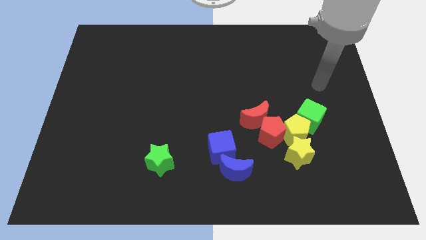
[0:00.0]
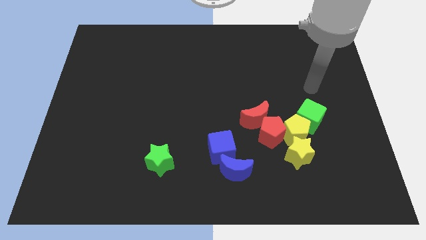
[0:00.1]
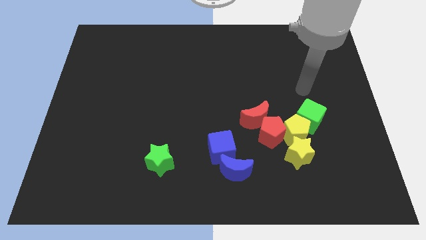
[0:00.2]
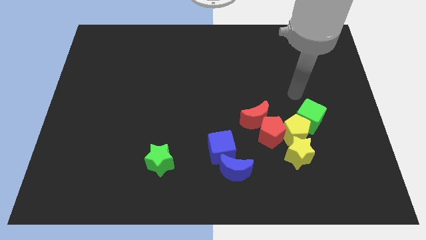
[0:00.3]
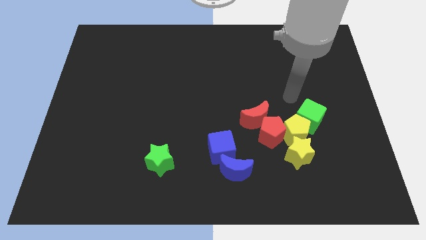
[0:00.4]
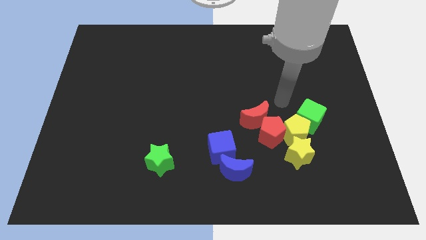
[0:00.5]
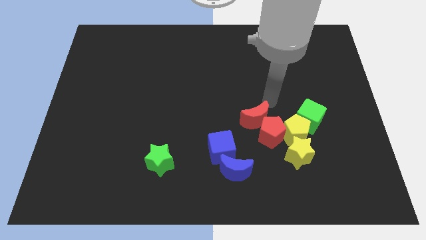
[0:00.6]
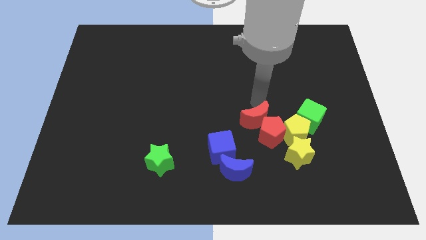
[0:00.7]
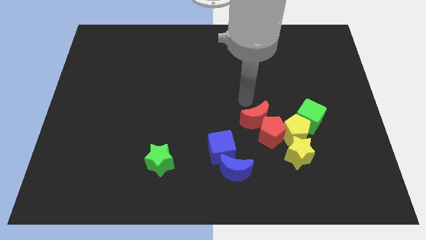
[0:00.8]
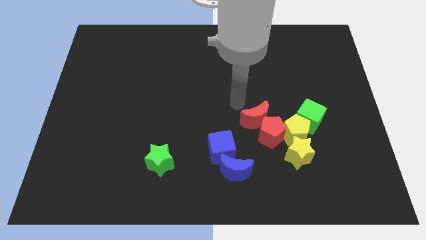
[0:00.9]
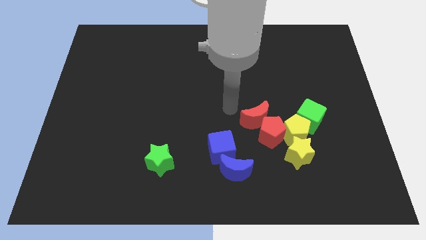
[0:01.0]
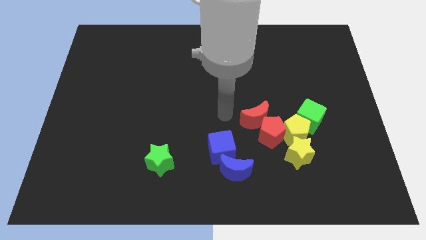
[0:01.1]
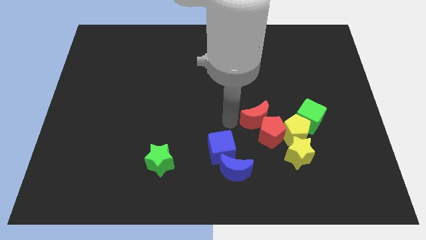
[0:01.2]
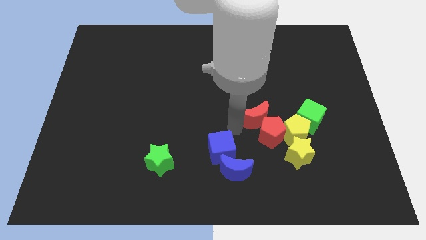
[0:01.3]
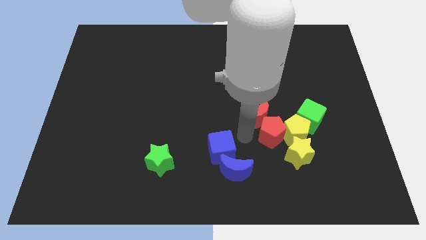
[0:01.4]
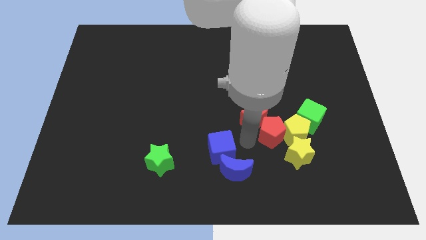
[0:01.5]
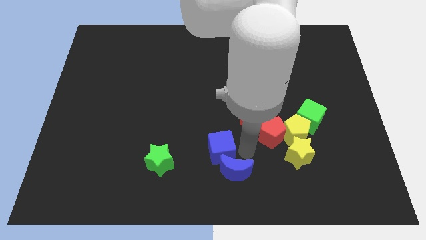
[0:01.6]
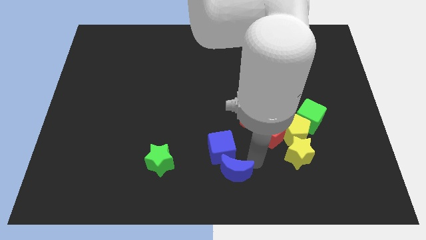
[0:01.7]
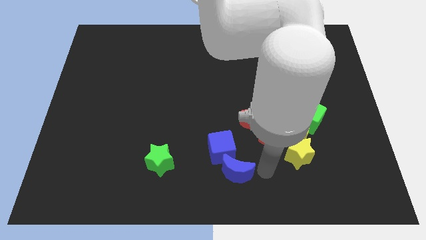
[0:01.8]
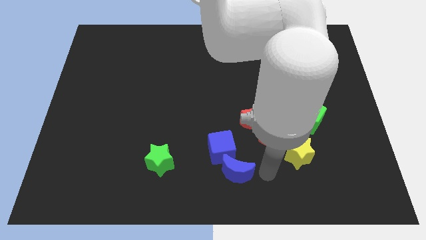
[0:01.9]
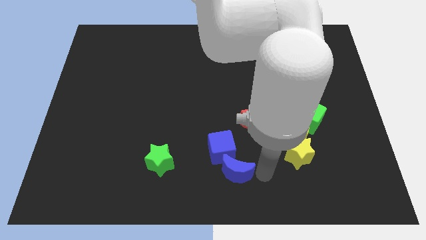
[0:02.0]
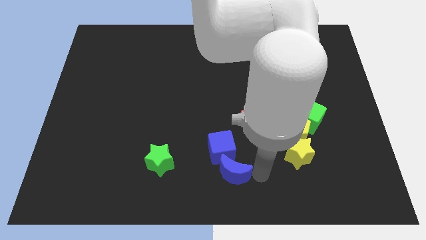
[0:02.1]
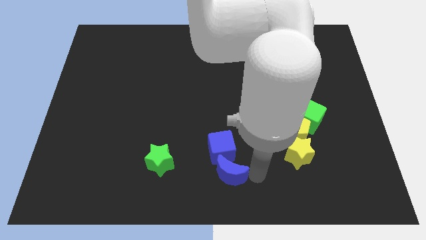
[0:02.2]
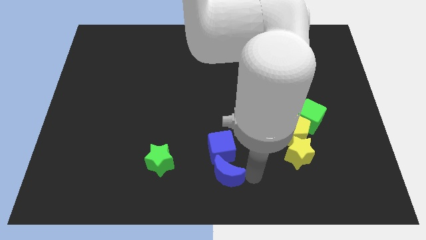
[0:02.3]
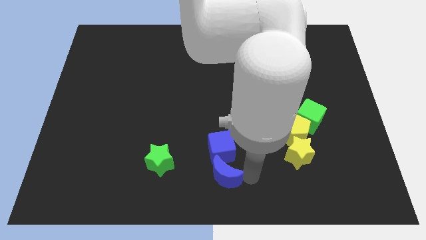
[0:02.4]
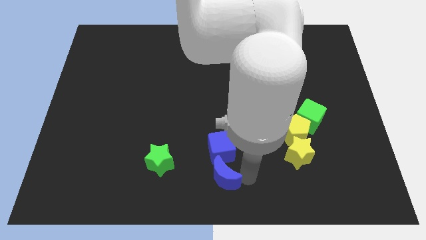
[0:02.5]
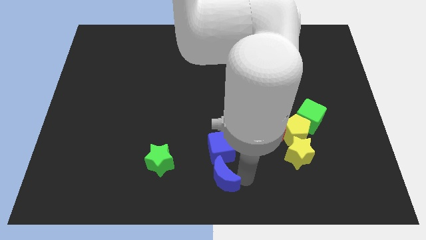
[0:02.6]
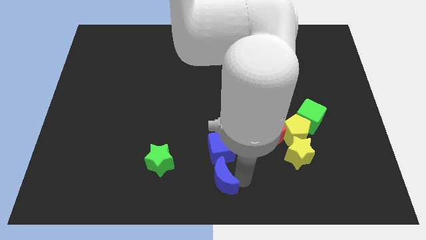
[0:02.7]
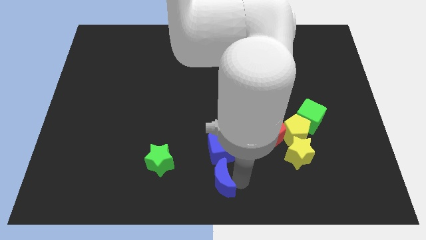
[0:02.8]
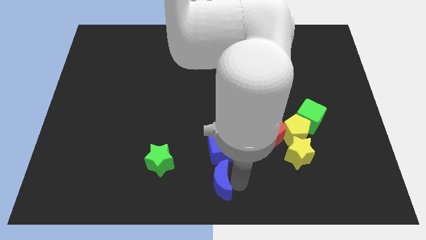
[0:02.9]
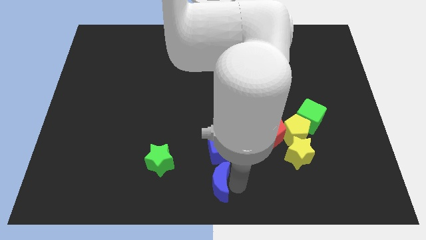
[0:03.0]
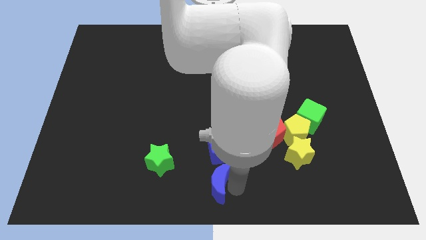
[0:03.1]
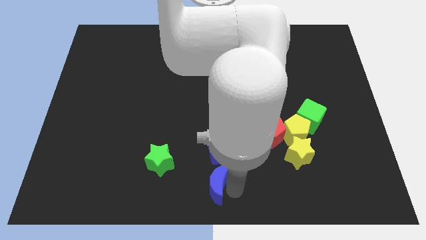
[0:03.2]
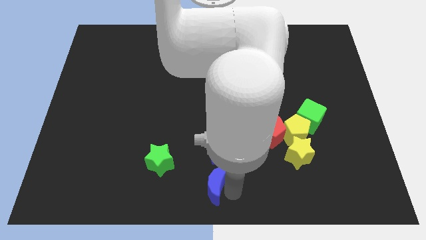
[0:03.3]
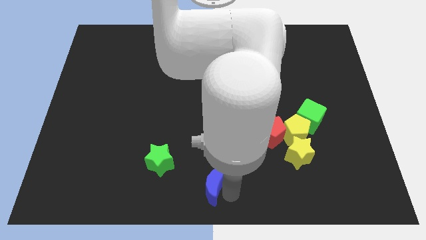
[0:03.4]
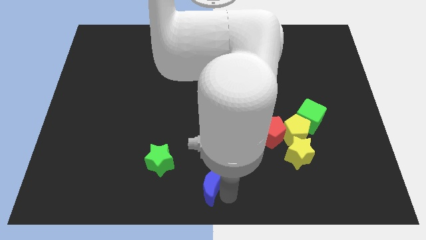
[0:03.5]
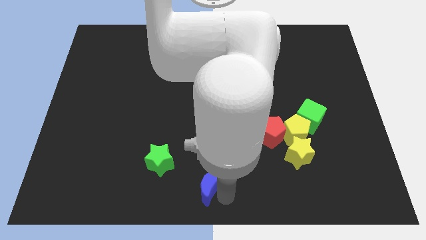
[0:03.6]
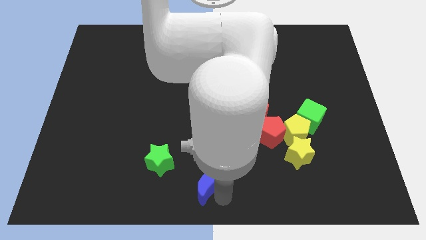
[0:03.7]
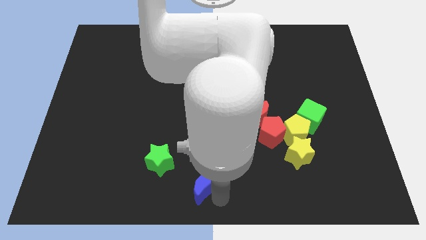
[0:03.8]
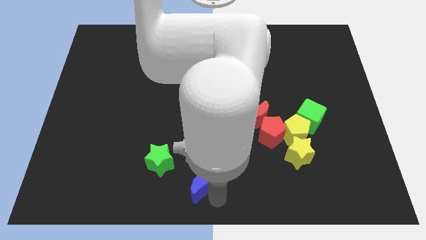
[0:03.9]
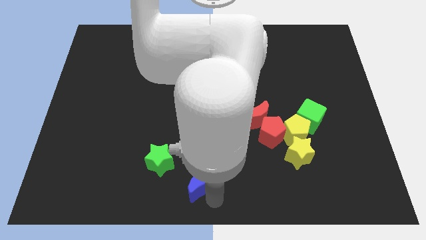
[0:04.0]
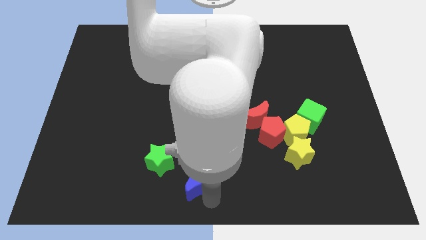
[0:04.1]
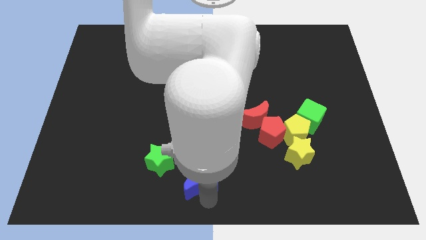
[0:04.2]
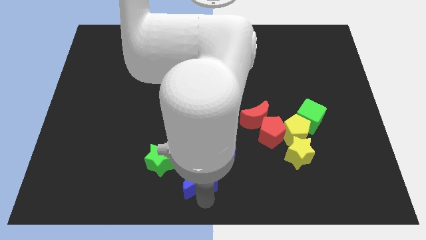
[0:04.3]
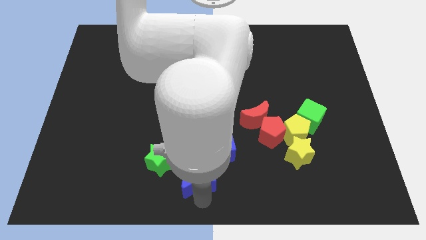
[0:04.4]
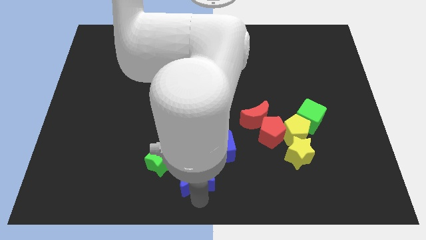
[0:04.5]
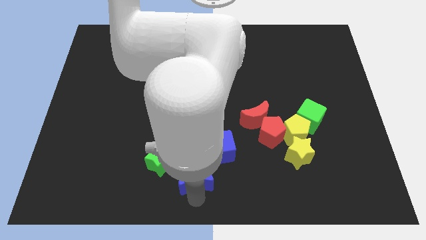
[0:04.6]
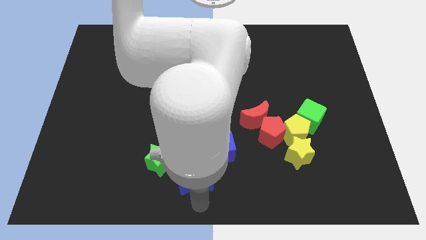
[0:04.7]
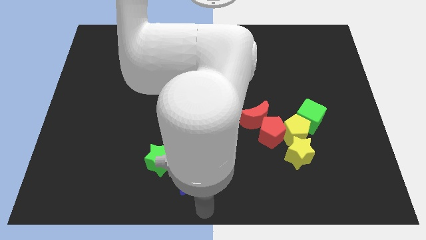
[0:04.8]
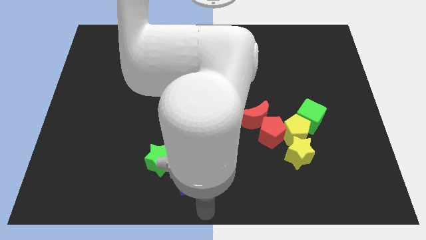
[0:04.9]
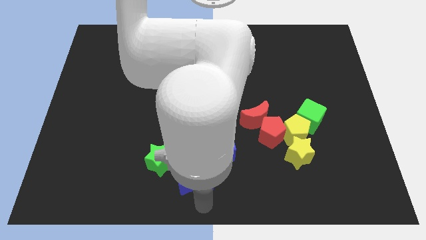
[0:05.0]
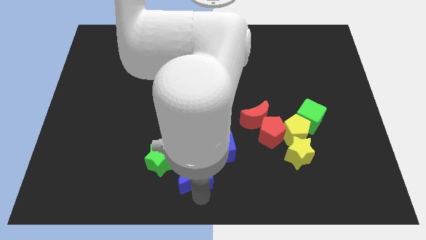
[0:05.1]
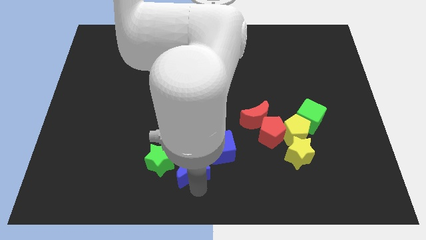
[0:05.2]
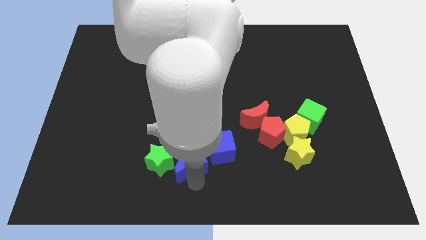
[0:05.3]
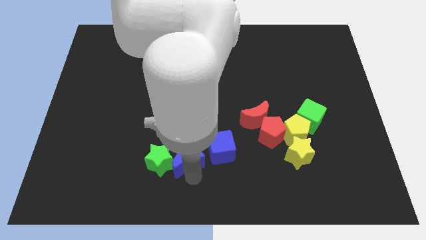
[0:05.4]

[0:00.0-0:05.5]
slightly move the blue moon up and to the left

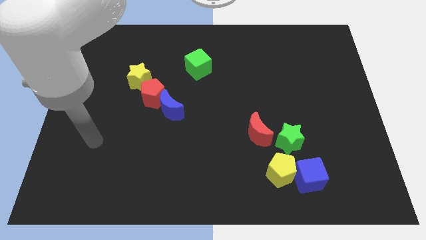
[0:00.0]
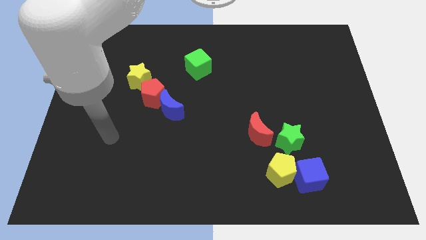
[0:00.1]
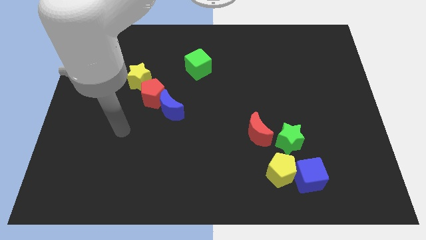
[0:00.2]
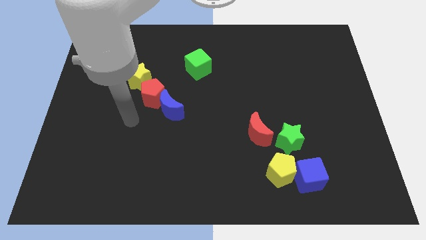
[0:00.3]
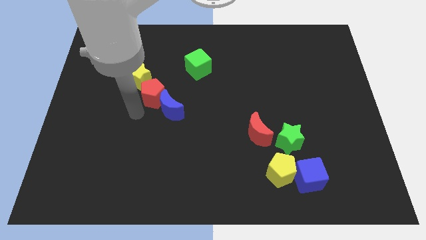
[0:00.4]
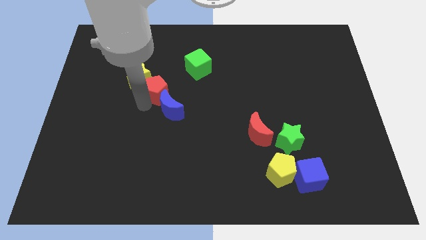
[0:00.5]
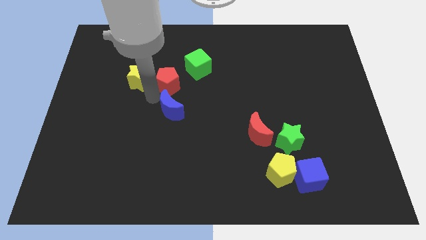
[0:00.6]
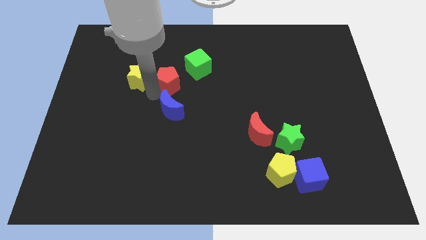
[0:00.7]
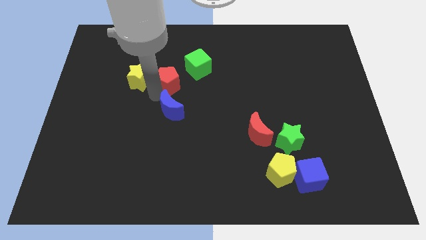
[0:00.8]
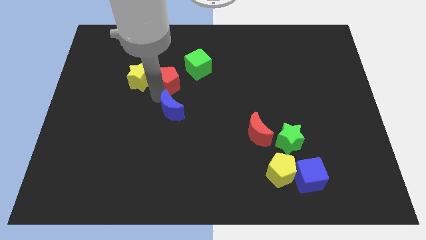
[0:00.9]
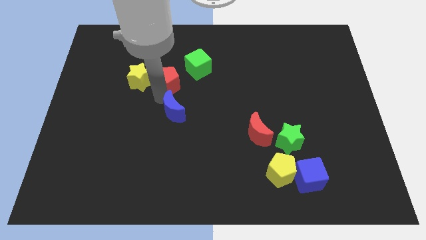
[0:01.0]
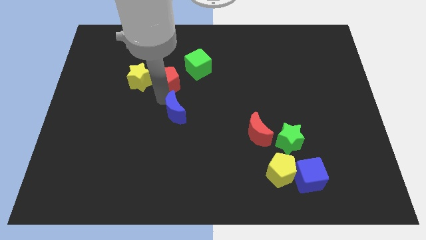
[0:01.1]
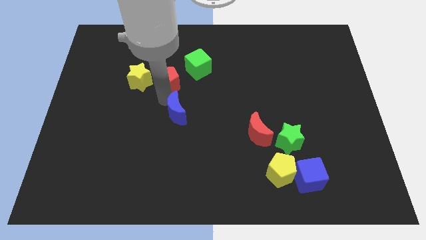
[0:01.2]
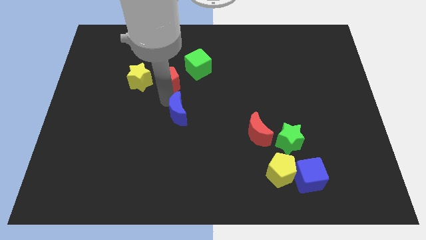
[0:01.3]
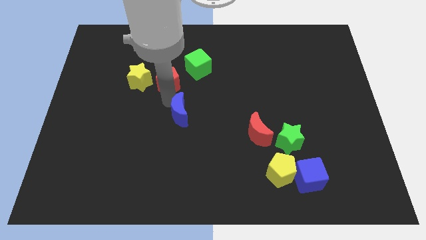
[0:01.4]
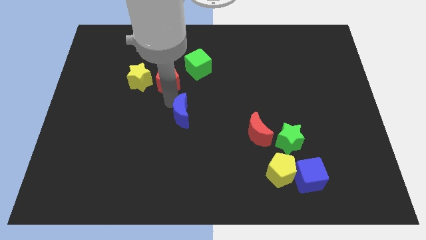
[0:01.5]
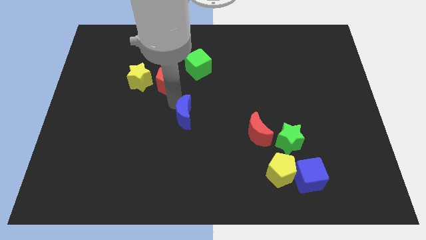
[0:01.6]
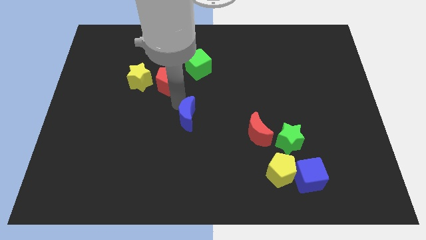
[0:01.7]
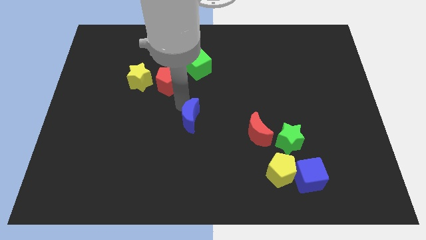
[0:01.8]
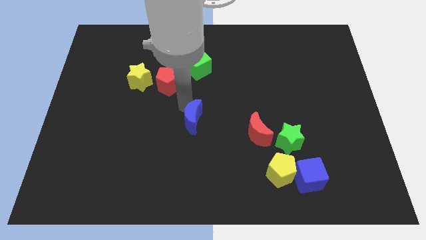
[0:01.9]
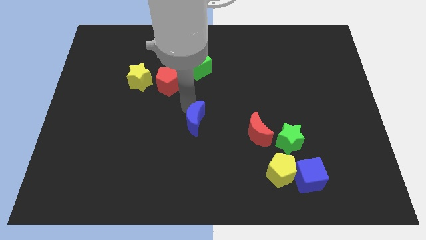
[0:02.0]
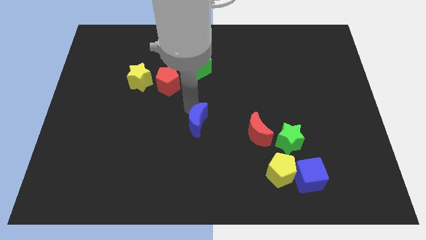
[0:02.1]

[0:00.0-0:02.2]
slide the blue moon a little down and to the right diagonally
